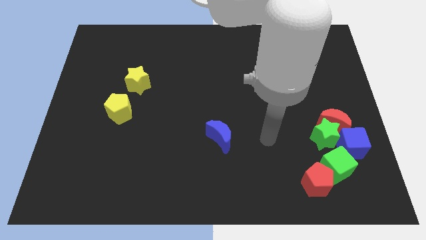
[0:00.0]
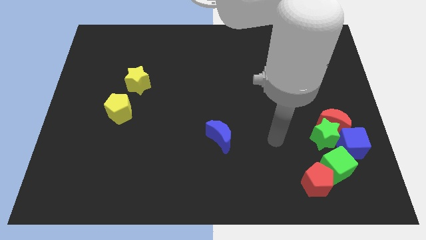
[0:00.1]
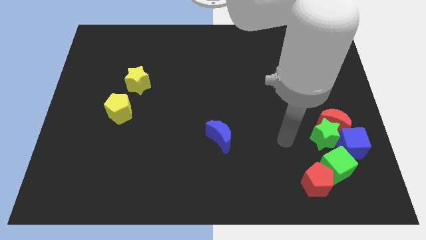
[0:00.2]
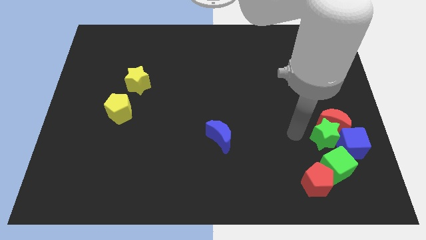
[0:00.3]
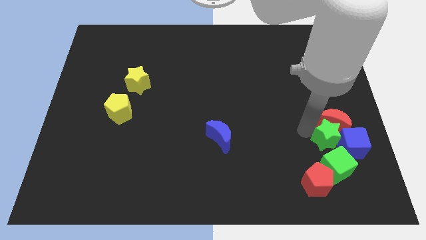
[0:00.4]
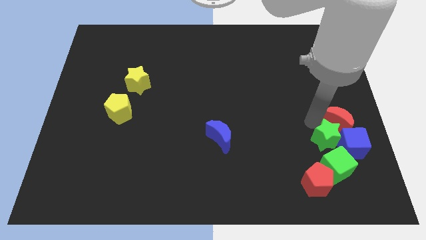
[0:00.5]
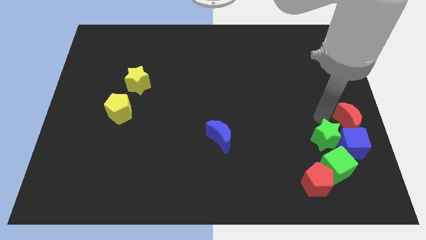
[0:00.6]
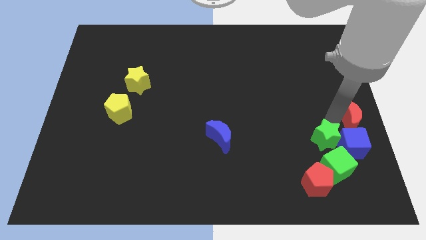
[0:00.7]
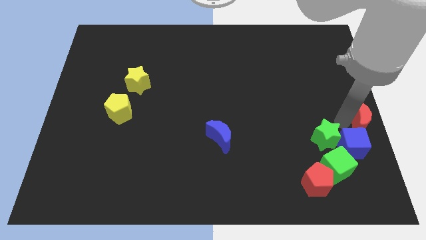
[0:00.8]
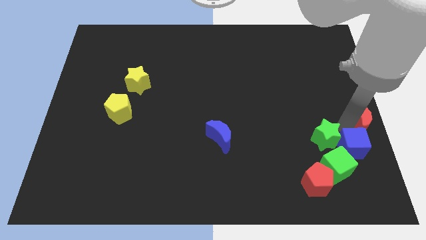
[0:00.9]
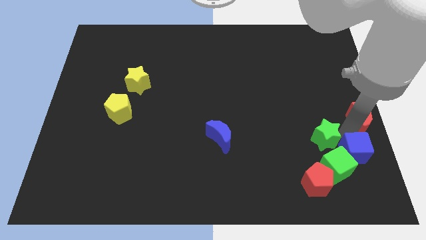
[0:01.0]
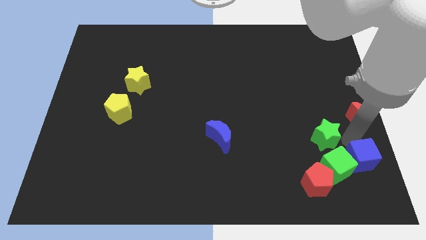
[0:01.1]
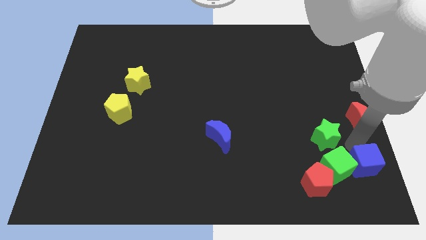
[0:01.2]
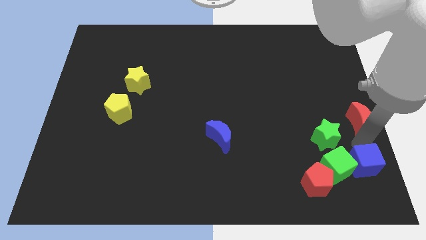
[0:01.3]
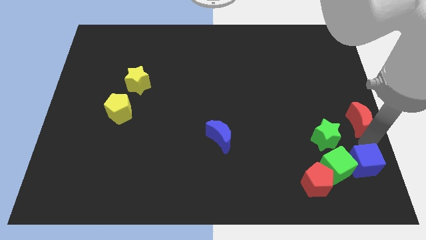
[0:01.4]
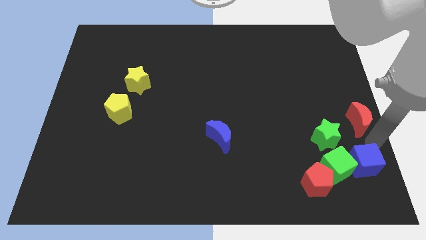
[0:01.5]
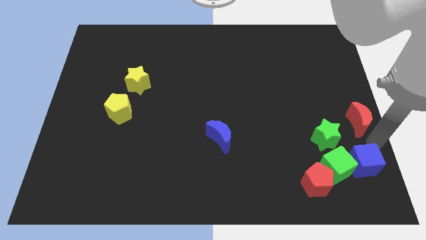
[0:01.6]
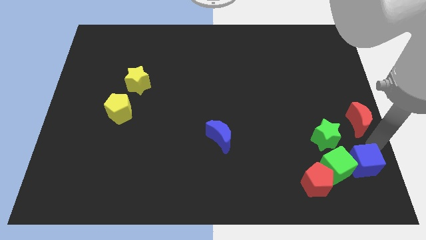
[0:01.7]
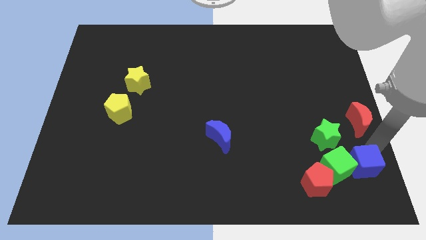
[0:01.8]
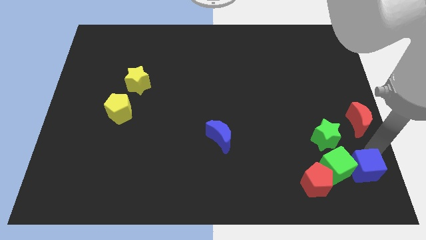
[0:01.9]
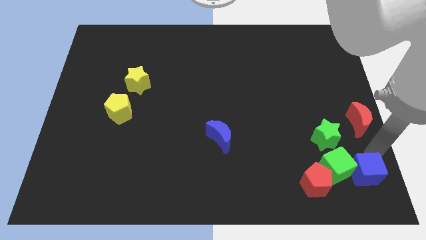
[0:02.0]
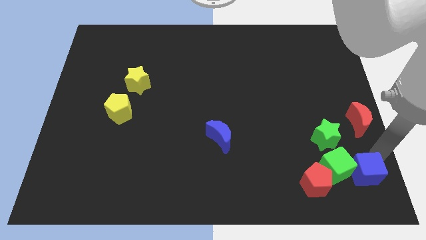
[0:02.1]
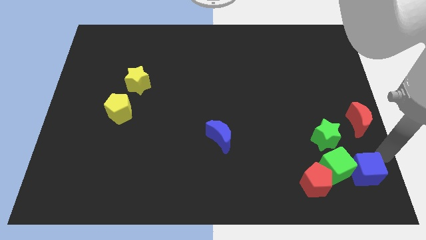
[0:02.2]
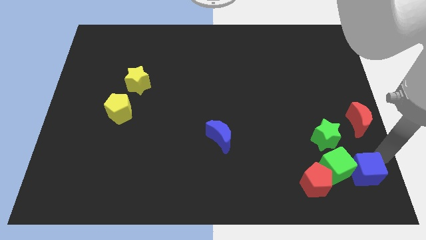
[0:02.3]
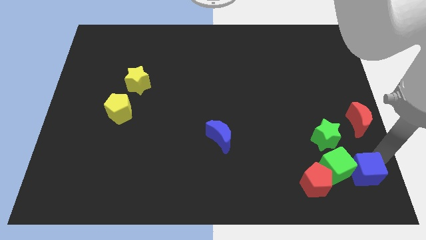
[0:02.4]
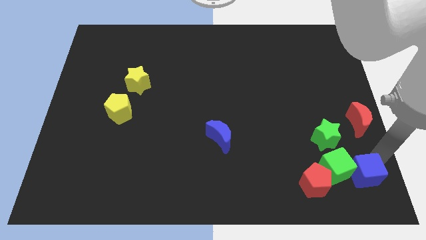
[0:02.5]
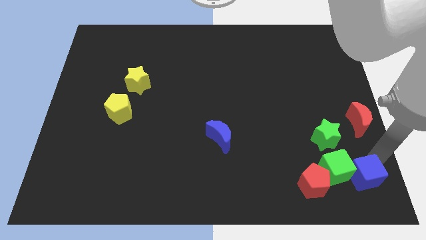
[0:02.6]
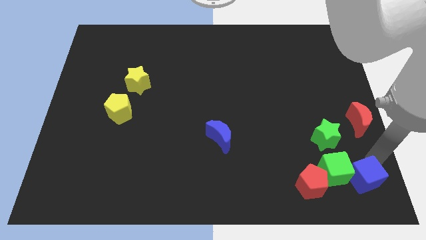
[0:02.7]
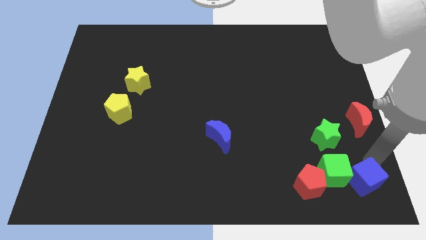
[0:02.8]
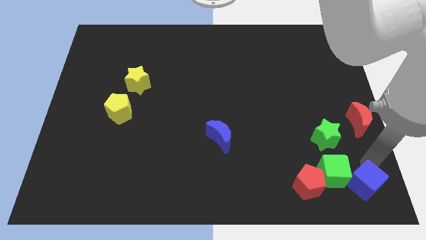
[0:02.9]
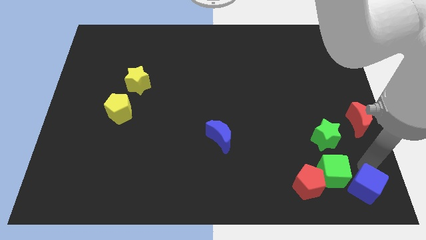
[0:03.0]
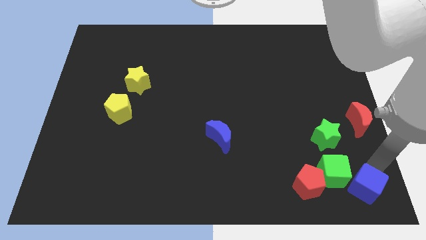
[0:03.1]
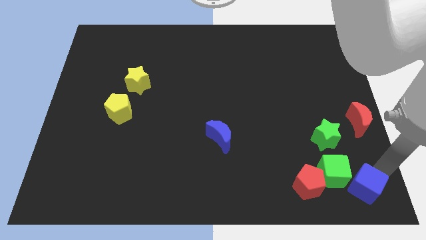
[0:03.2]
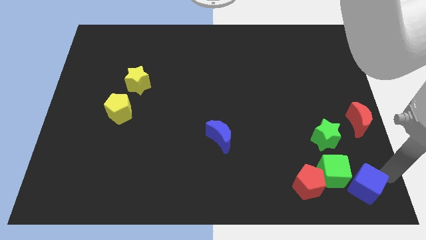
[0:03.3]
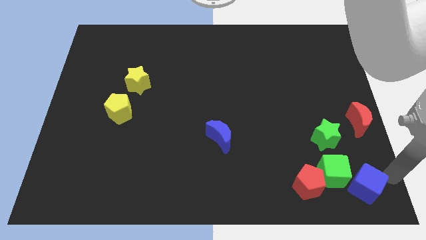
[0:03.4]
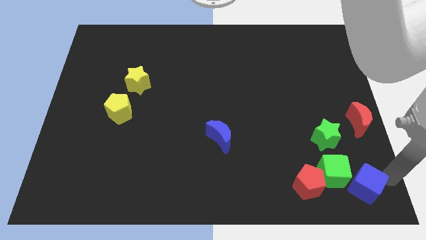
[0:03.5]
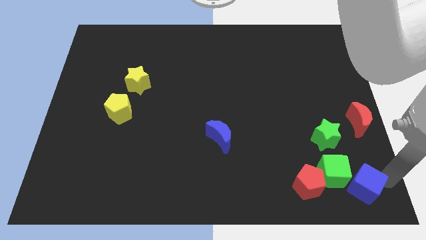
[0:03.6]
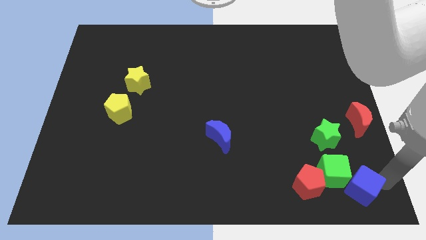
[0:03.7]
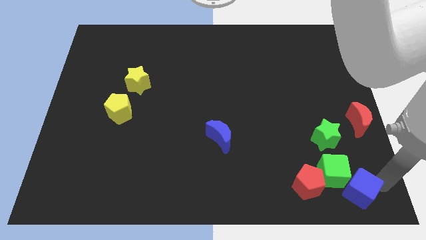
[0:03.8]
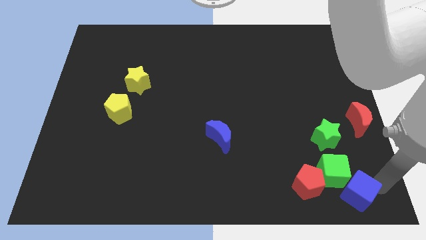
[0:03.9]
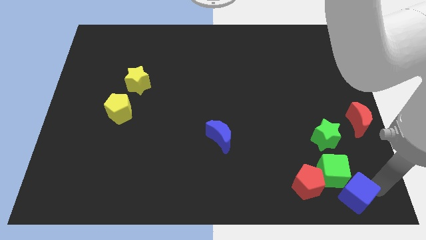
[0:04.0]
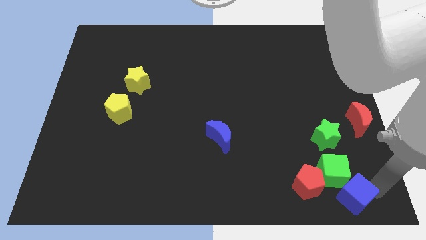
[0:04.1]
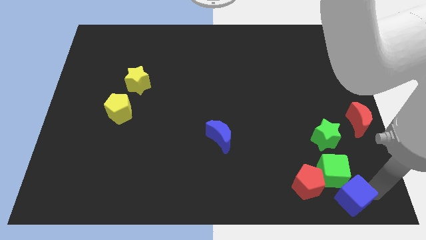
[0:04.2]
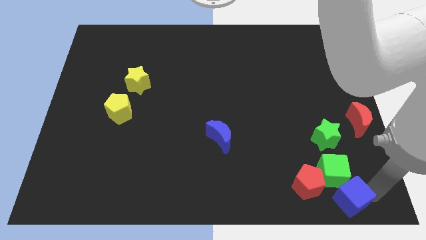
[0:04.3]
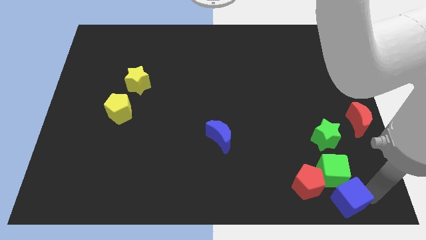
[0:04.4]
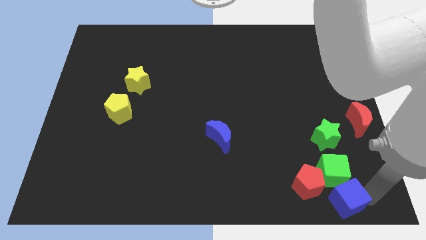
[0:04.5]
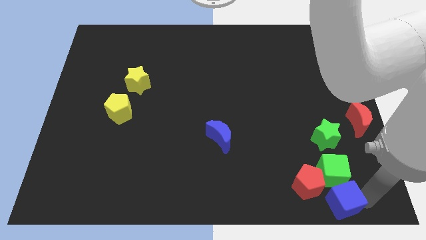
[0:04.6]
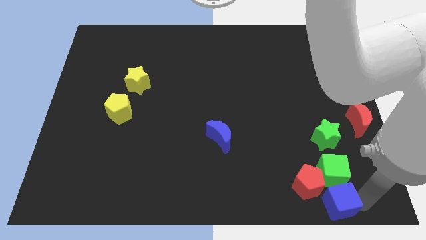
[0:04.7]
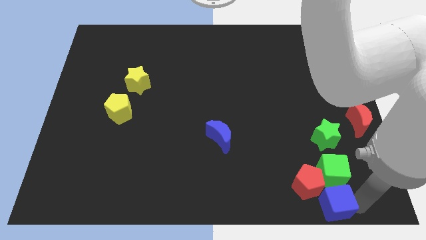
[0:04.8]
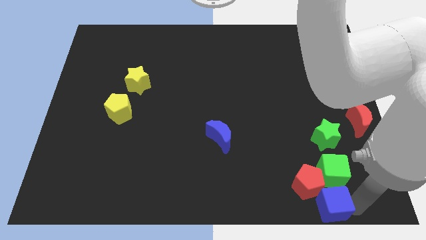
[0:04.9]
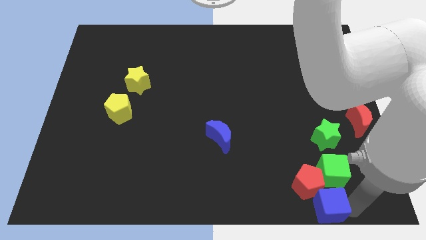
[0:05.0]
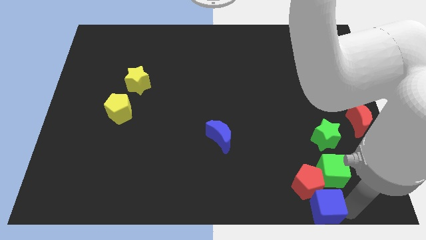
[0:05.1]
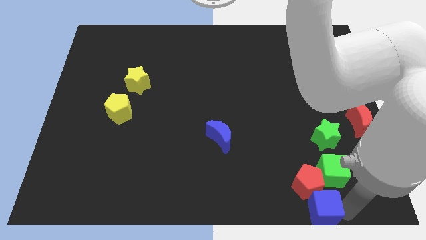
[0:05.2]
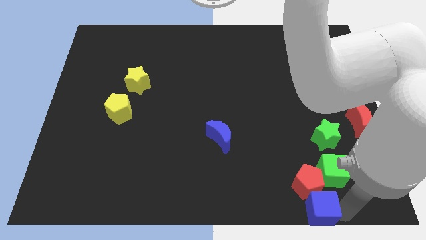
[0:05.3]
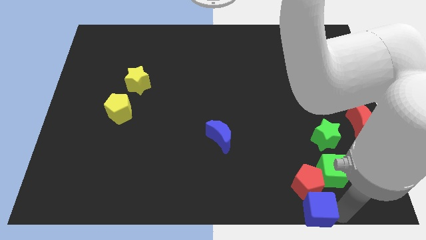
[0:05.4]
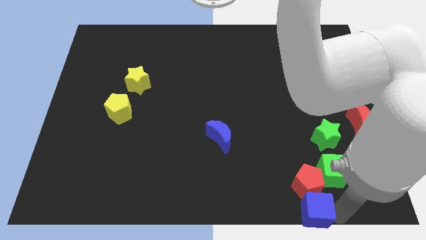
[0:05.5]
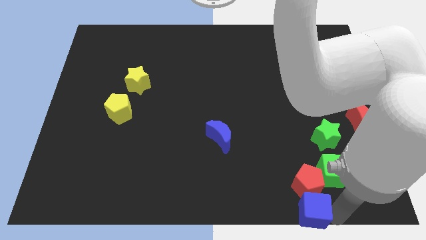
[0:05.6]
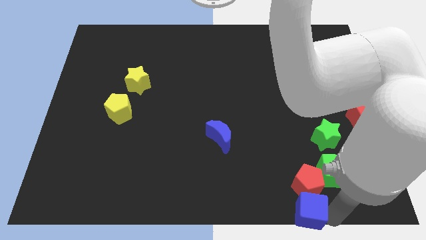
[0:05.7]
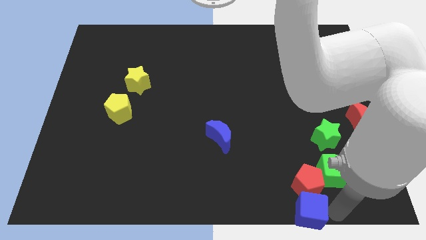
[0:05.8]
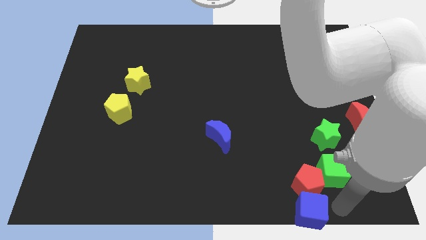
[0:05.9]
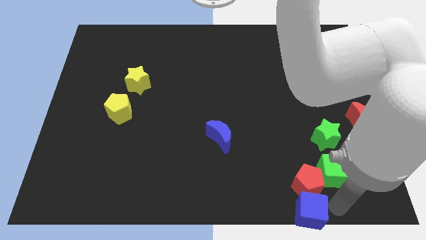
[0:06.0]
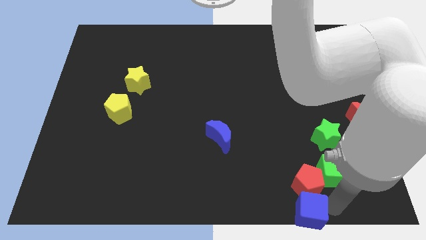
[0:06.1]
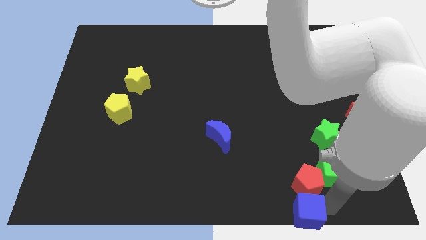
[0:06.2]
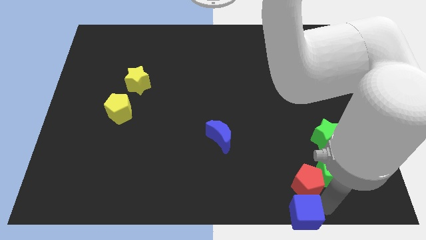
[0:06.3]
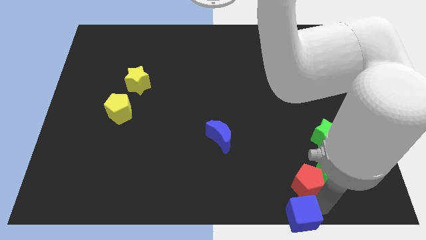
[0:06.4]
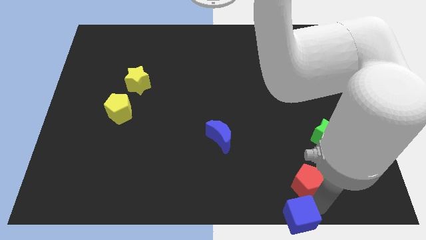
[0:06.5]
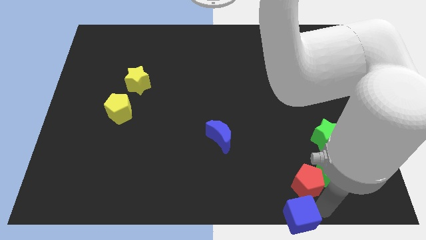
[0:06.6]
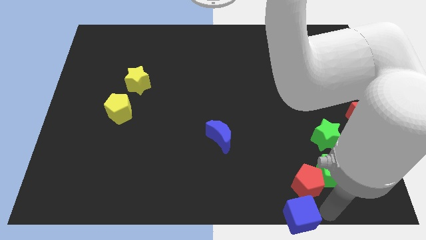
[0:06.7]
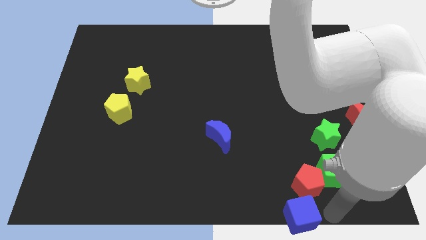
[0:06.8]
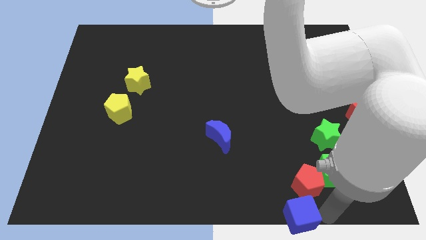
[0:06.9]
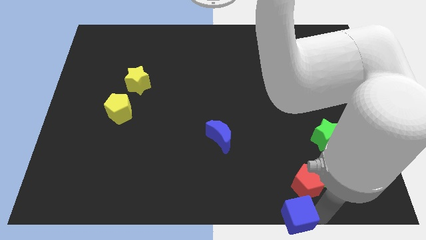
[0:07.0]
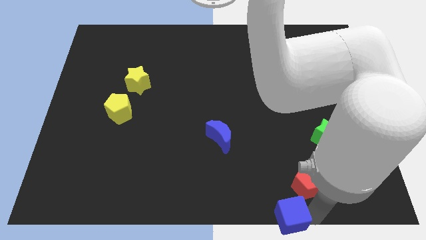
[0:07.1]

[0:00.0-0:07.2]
put the blue cube to the bottom
